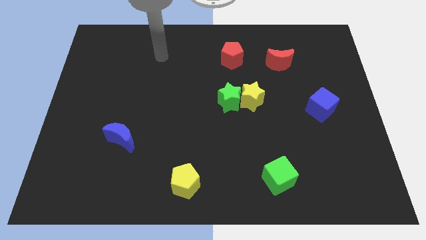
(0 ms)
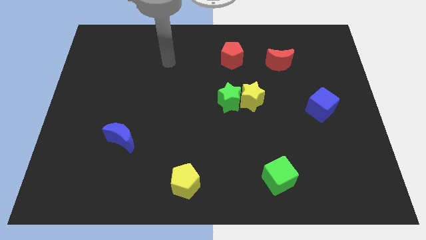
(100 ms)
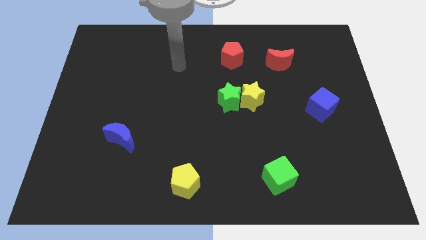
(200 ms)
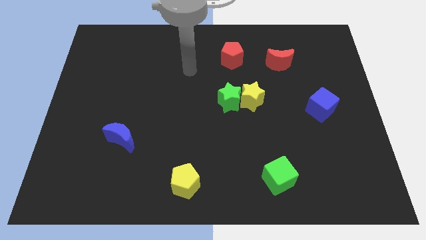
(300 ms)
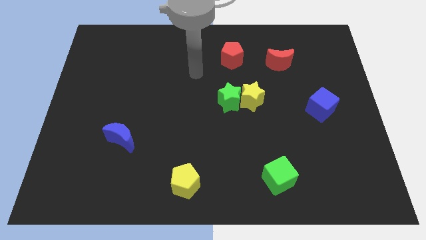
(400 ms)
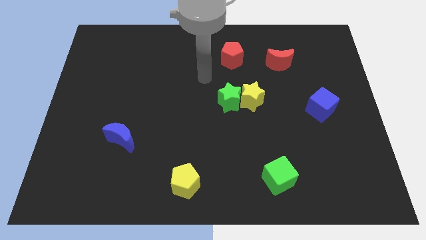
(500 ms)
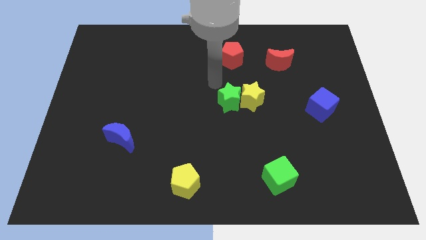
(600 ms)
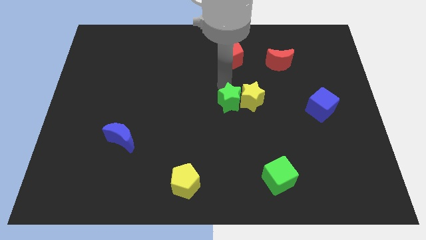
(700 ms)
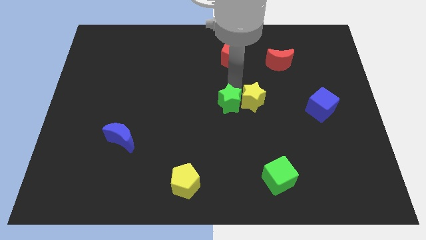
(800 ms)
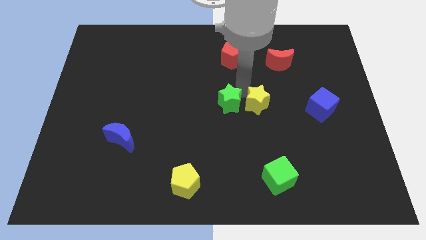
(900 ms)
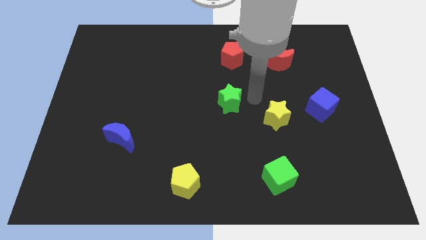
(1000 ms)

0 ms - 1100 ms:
pull the green star apart from the yellow star

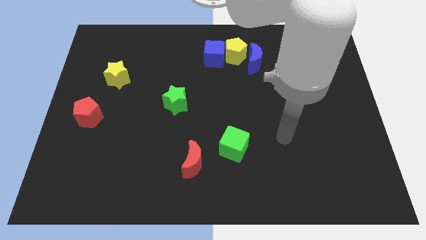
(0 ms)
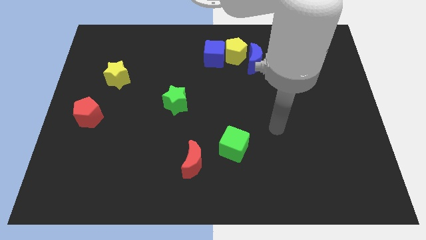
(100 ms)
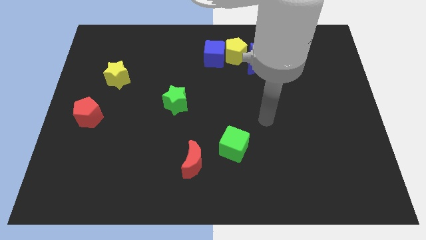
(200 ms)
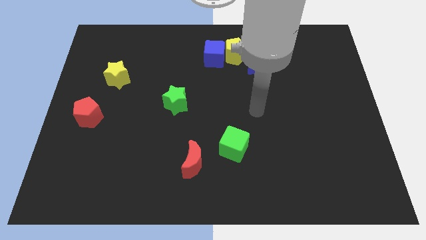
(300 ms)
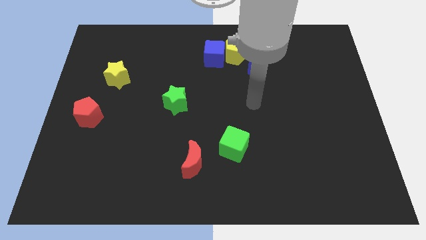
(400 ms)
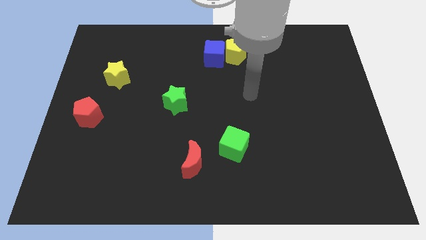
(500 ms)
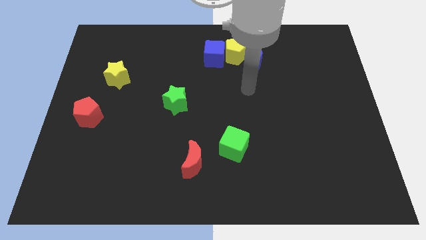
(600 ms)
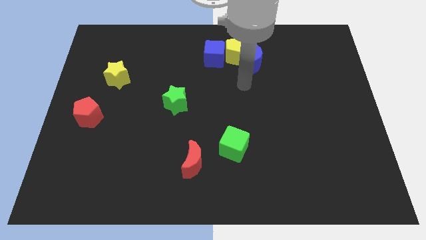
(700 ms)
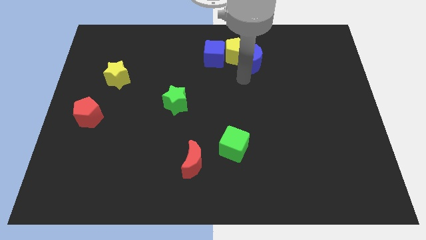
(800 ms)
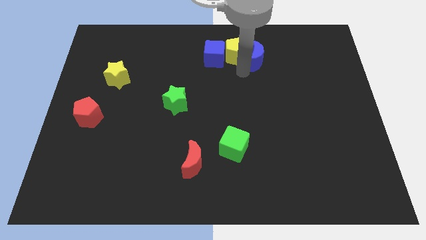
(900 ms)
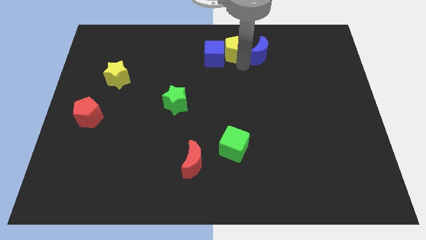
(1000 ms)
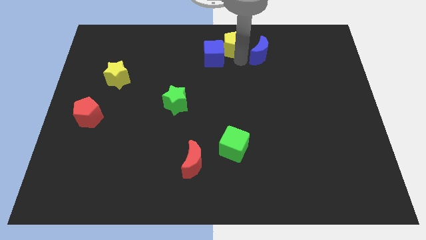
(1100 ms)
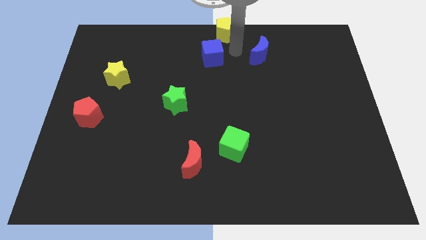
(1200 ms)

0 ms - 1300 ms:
move the blue cube away from the yellow pentagon

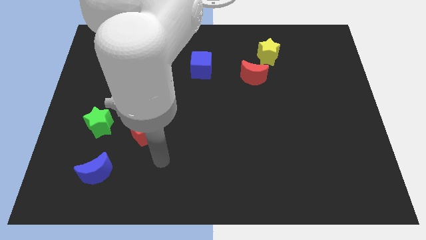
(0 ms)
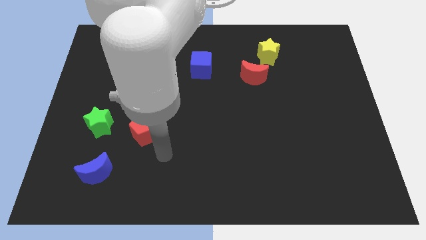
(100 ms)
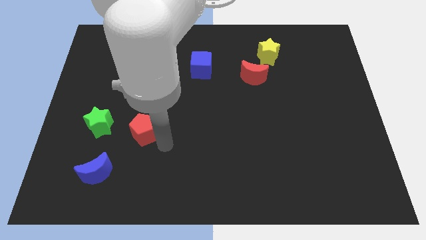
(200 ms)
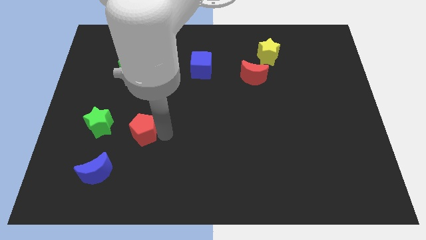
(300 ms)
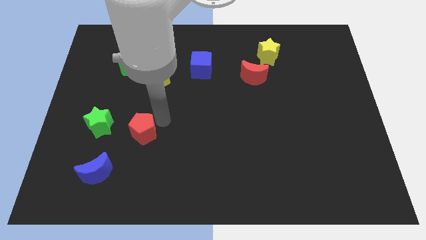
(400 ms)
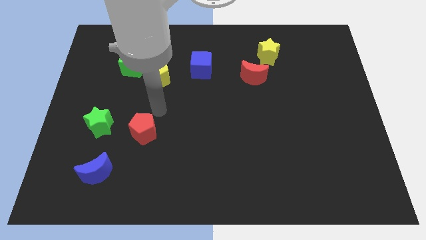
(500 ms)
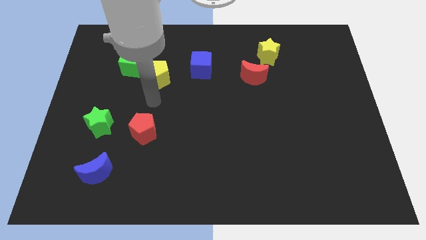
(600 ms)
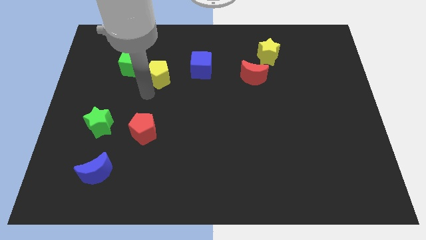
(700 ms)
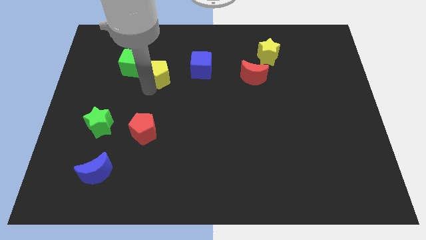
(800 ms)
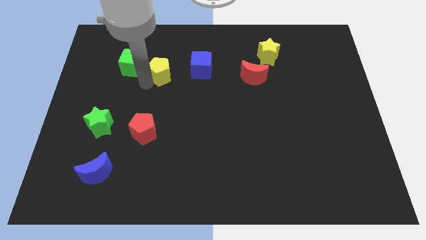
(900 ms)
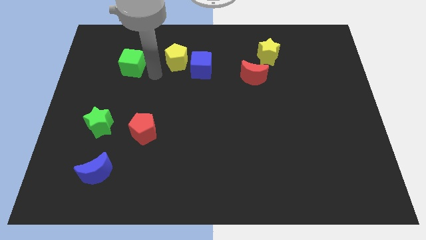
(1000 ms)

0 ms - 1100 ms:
pull the green cube apart from the yellow pentagon

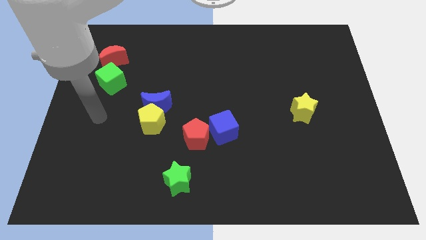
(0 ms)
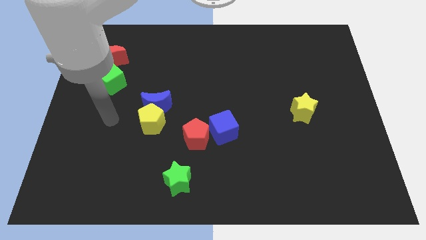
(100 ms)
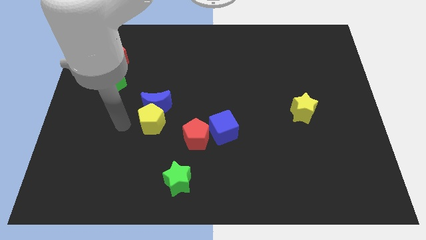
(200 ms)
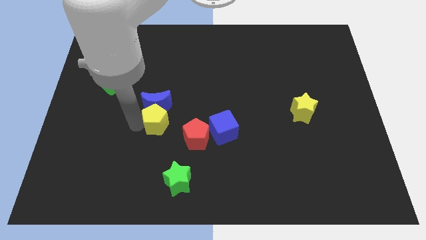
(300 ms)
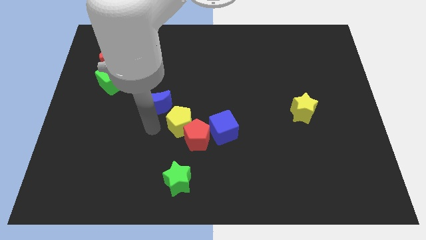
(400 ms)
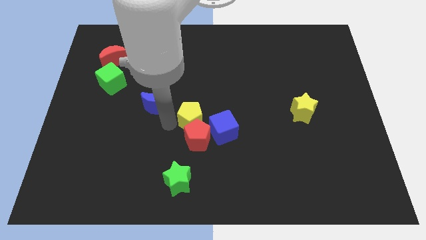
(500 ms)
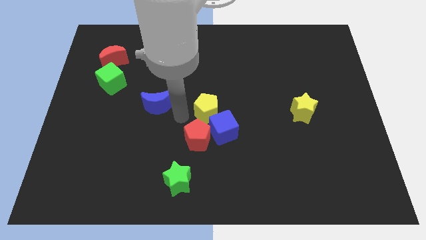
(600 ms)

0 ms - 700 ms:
separate the blue moon from the yellow pentagon

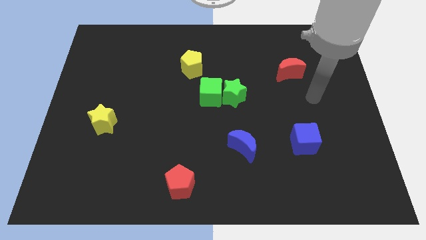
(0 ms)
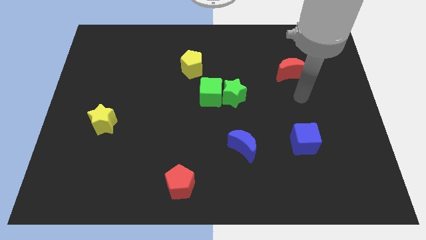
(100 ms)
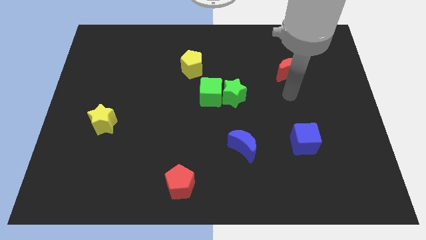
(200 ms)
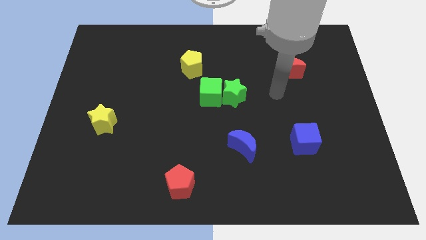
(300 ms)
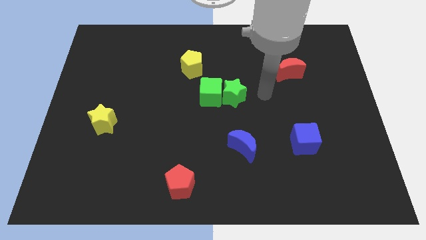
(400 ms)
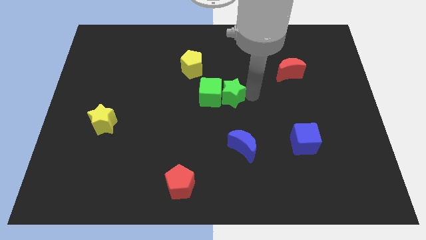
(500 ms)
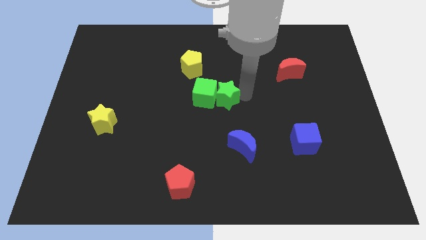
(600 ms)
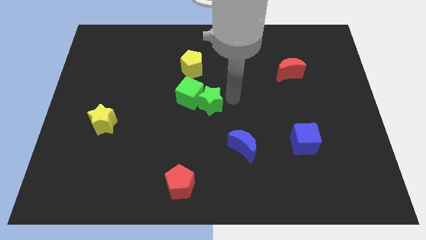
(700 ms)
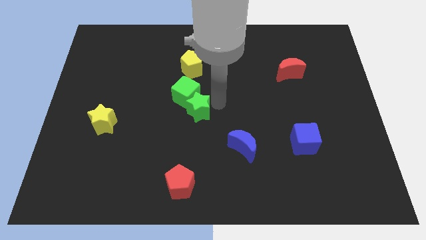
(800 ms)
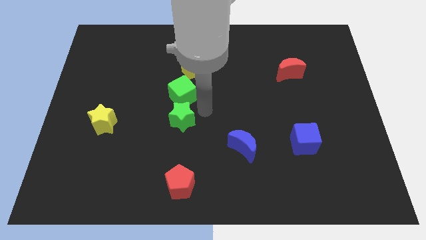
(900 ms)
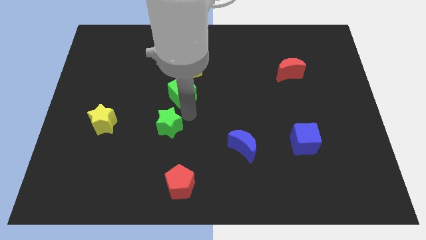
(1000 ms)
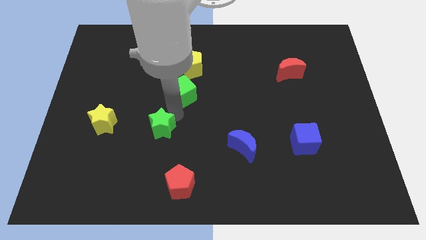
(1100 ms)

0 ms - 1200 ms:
pull the green cube apart from the green star

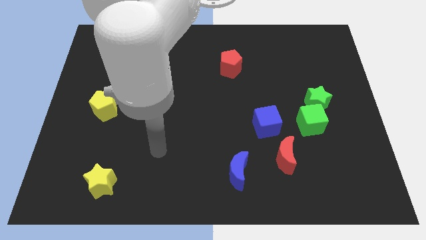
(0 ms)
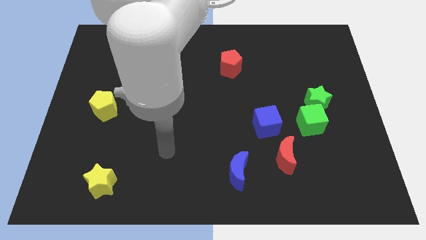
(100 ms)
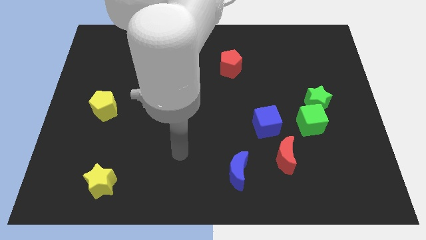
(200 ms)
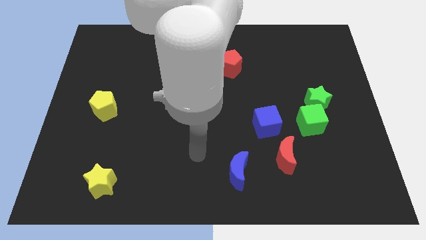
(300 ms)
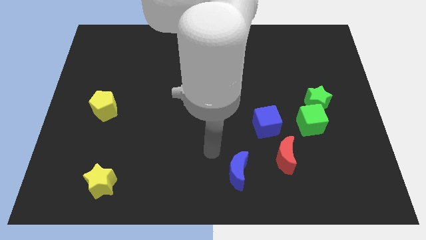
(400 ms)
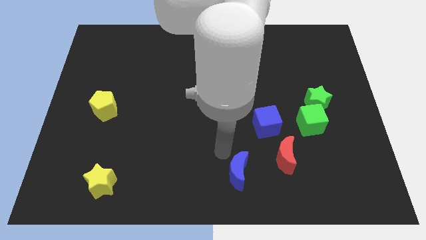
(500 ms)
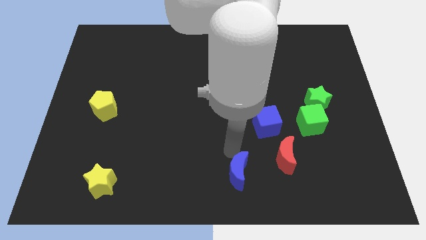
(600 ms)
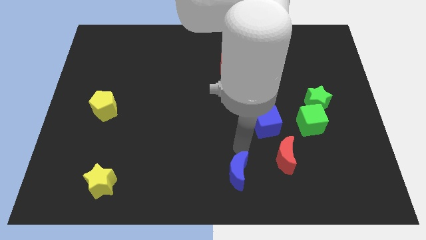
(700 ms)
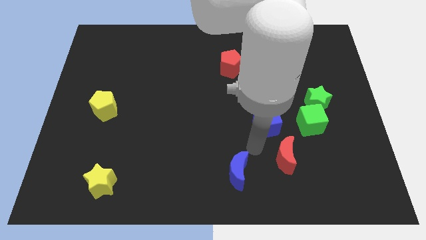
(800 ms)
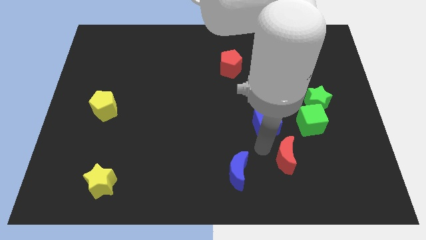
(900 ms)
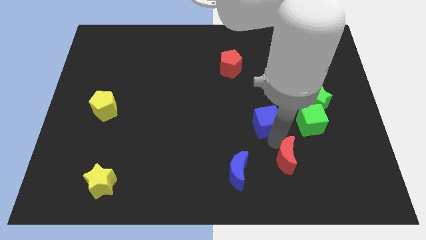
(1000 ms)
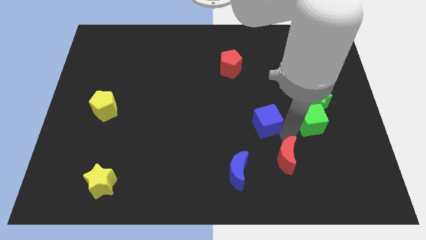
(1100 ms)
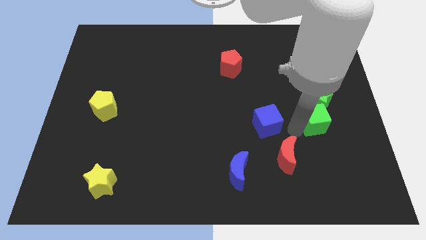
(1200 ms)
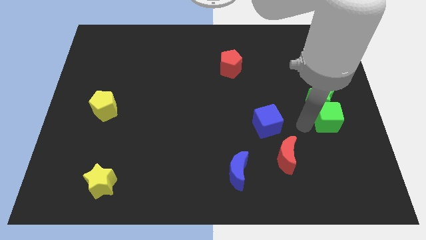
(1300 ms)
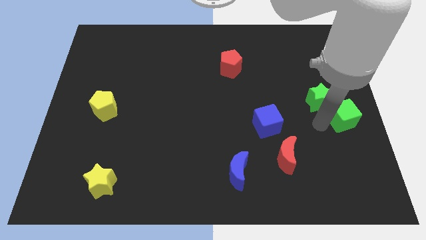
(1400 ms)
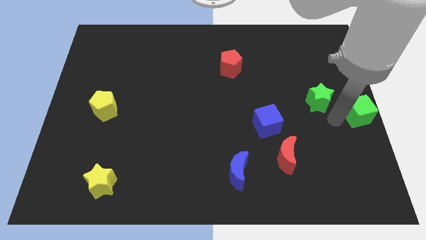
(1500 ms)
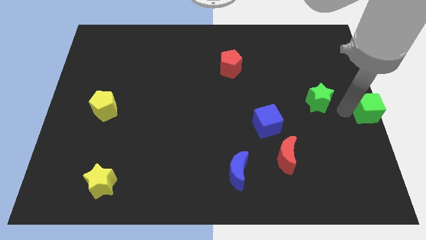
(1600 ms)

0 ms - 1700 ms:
separate the green star from the green cube

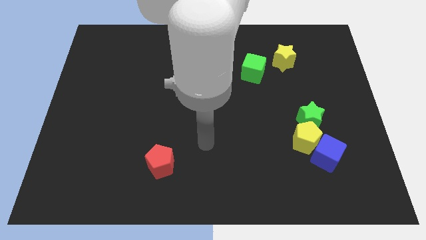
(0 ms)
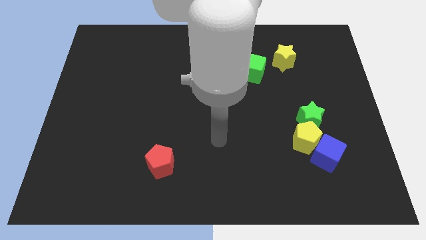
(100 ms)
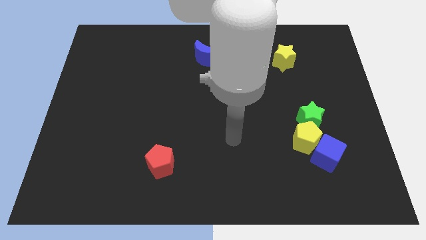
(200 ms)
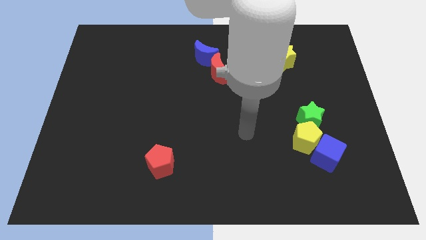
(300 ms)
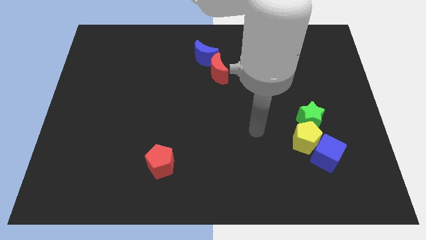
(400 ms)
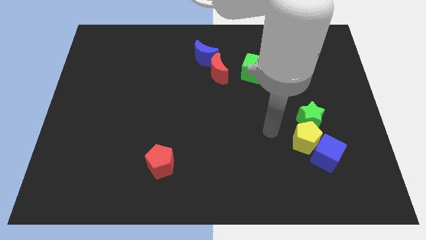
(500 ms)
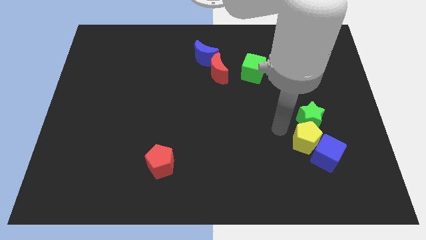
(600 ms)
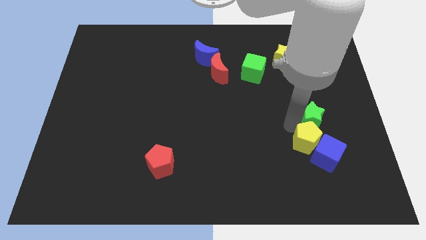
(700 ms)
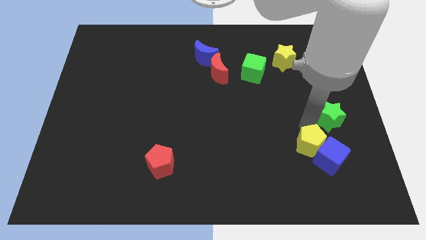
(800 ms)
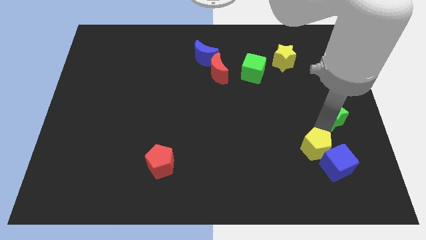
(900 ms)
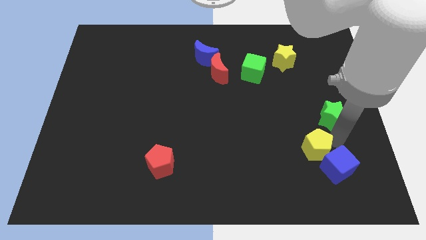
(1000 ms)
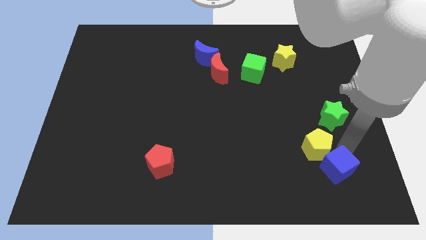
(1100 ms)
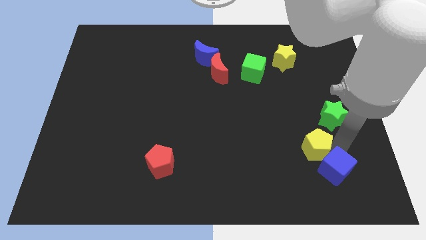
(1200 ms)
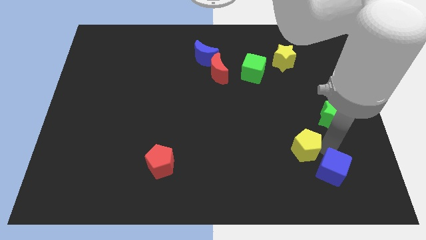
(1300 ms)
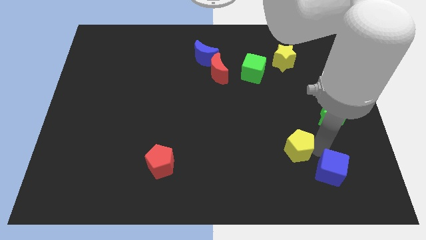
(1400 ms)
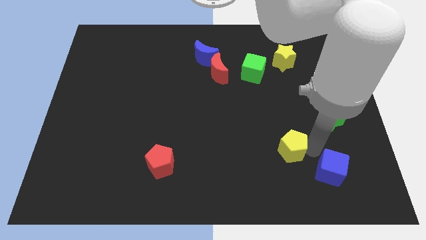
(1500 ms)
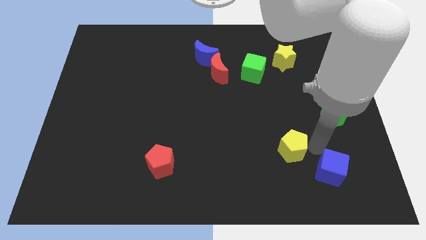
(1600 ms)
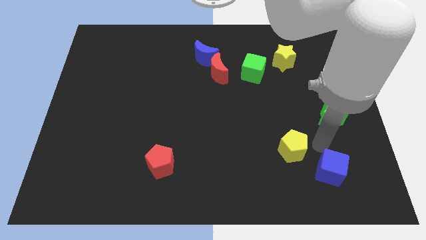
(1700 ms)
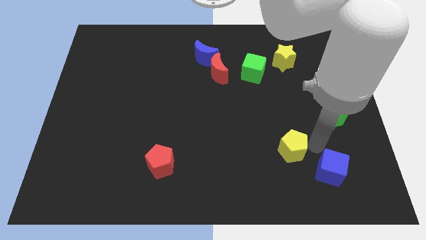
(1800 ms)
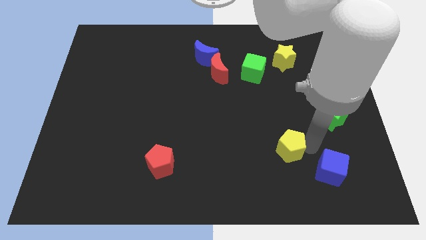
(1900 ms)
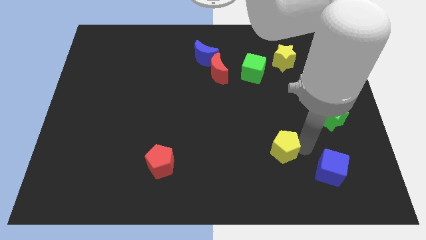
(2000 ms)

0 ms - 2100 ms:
move the yellow pentagon away from the blue cube and green star
